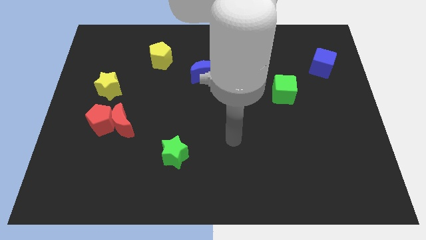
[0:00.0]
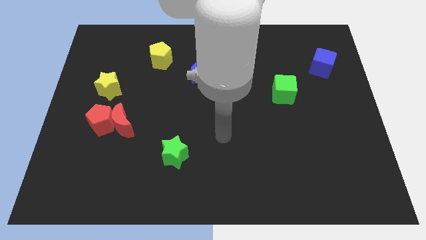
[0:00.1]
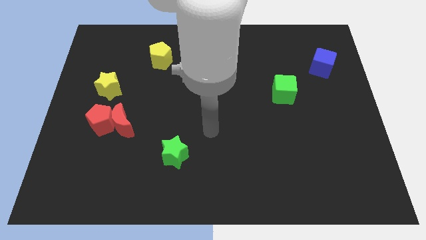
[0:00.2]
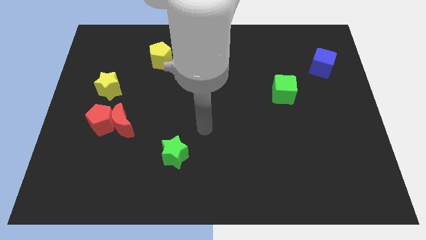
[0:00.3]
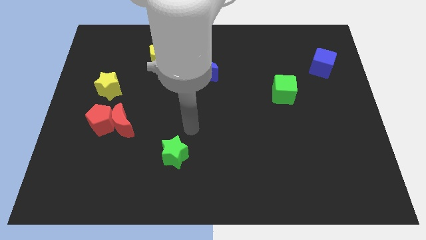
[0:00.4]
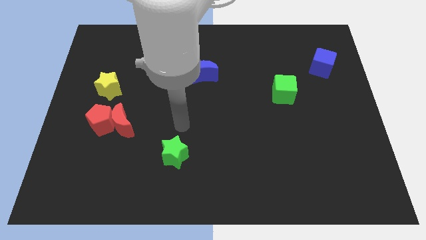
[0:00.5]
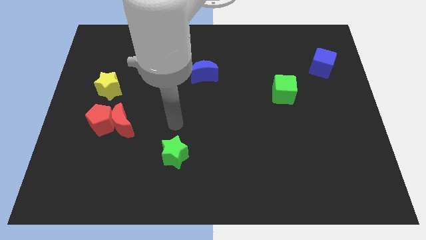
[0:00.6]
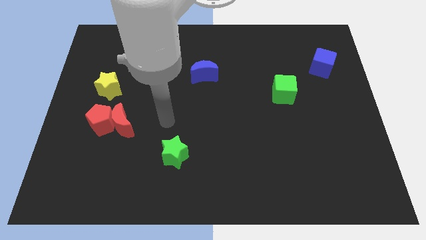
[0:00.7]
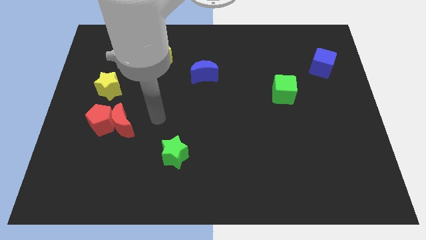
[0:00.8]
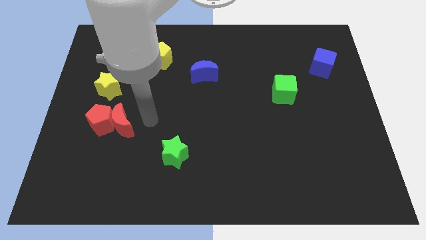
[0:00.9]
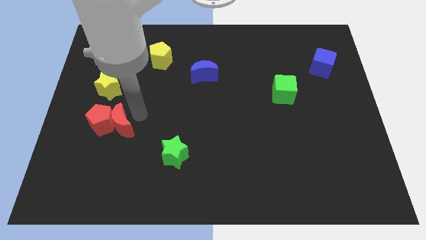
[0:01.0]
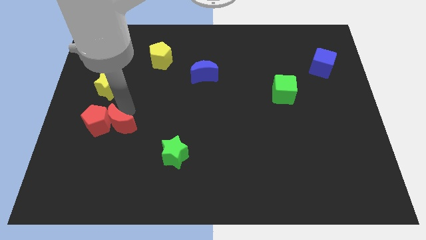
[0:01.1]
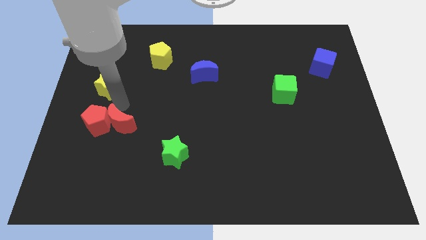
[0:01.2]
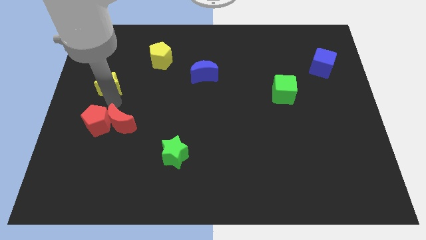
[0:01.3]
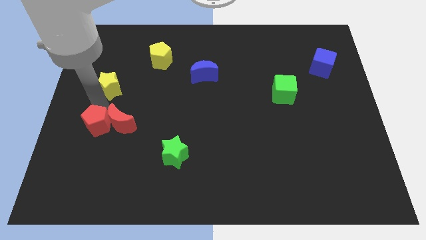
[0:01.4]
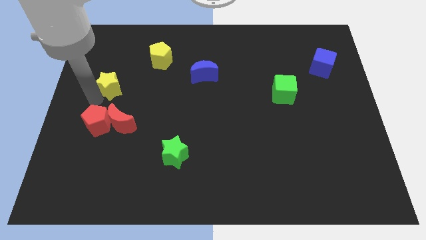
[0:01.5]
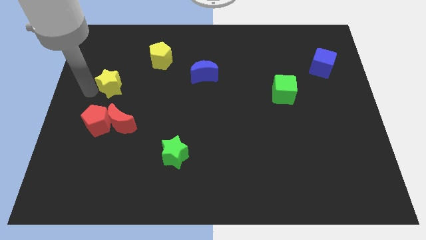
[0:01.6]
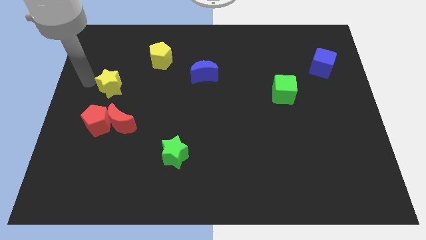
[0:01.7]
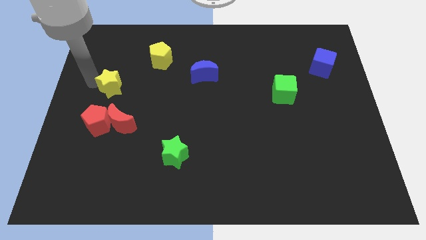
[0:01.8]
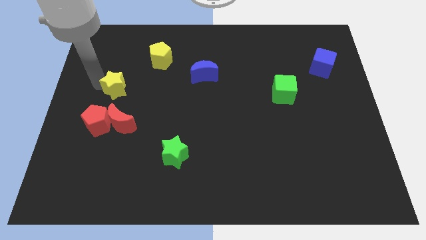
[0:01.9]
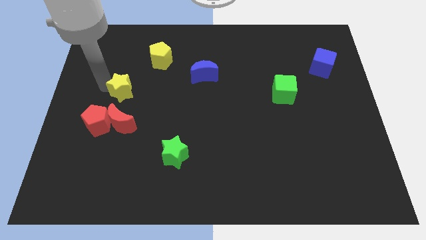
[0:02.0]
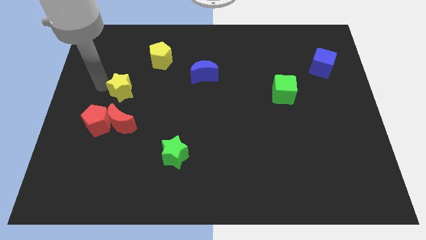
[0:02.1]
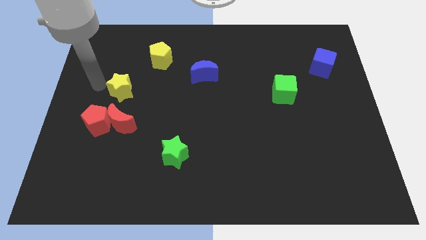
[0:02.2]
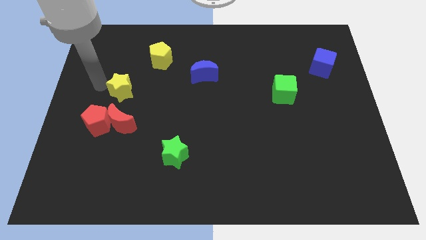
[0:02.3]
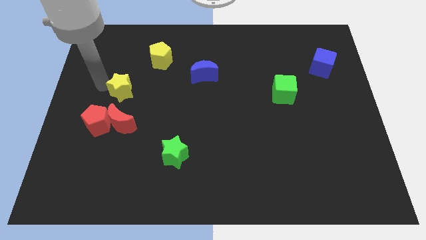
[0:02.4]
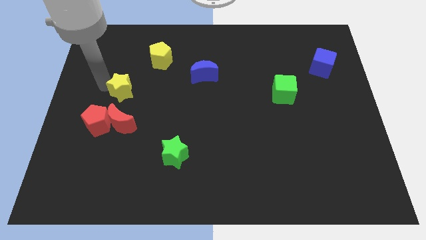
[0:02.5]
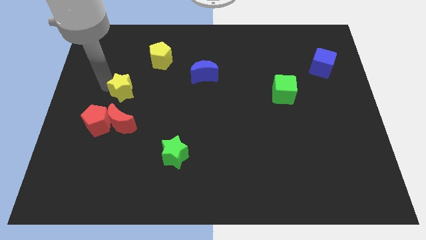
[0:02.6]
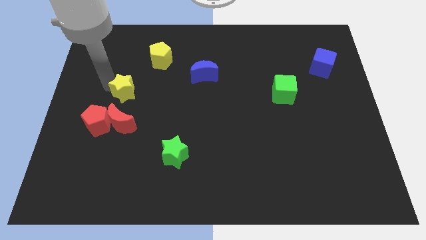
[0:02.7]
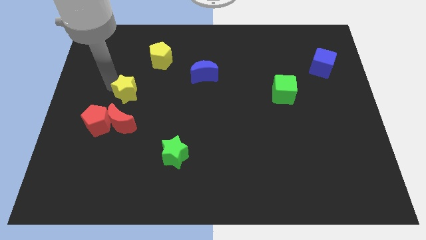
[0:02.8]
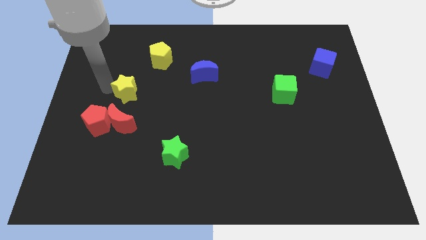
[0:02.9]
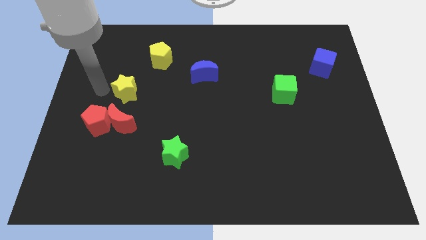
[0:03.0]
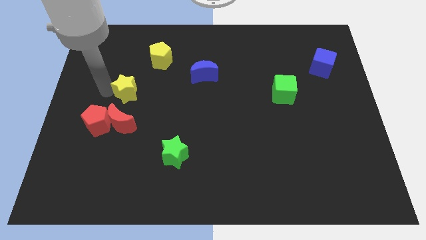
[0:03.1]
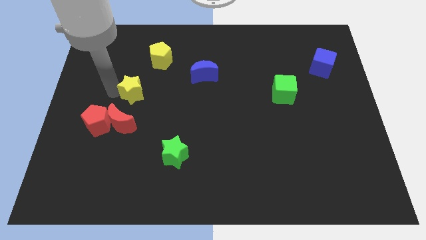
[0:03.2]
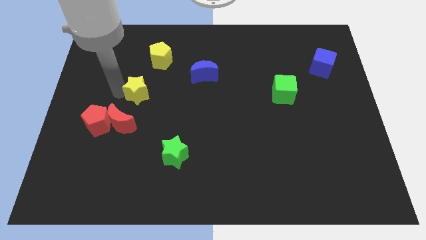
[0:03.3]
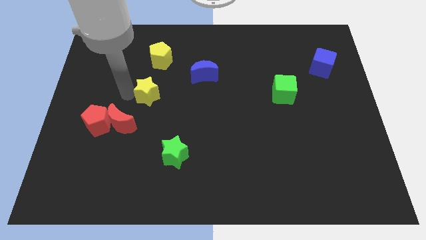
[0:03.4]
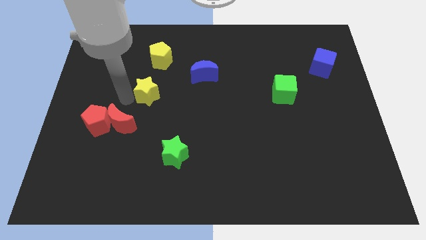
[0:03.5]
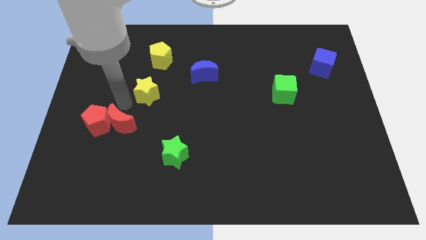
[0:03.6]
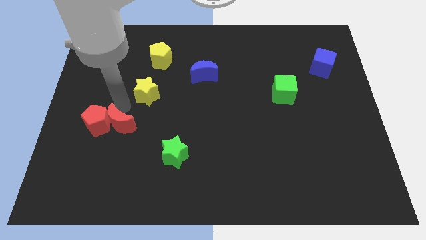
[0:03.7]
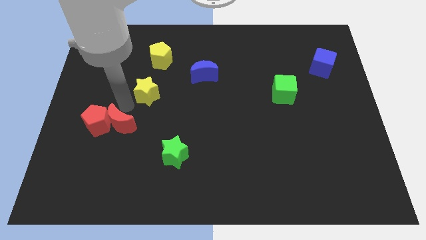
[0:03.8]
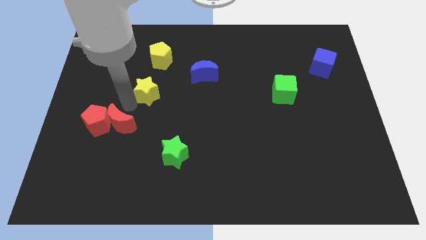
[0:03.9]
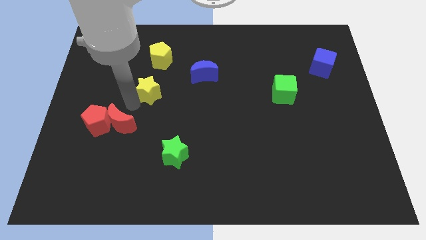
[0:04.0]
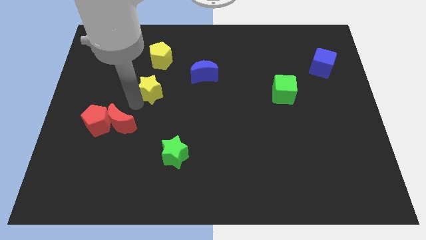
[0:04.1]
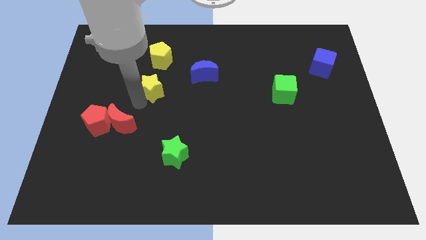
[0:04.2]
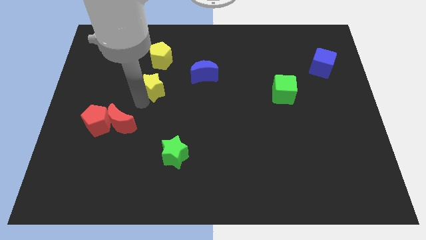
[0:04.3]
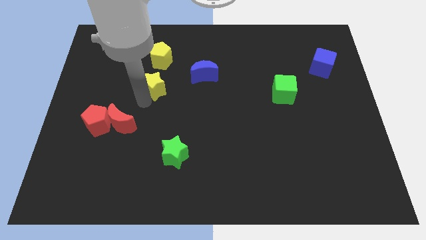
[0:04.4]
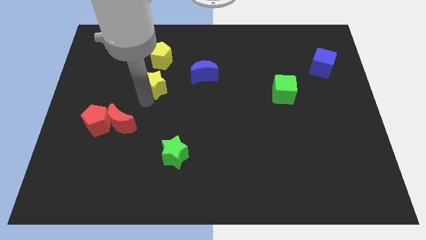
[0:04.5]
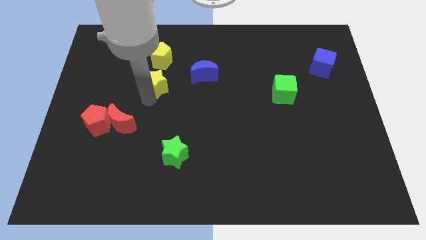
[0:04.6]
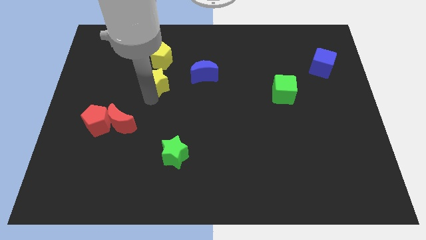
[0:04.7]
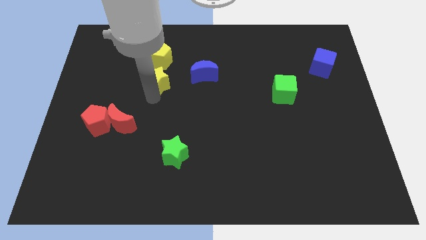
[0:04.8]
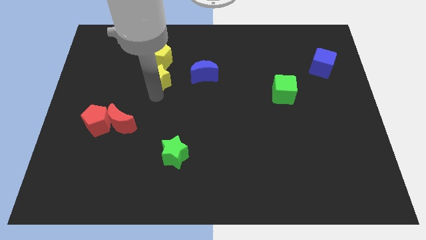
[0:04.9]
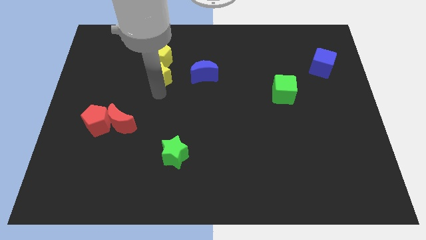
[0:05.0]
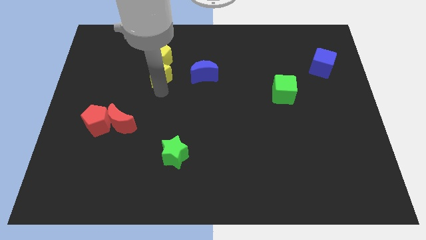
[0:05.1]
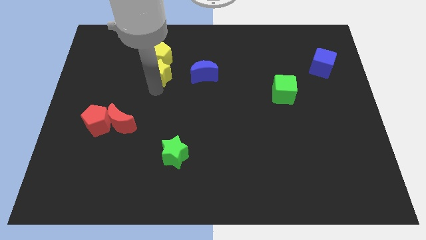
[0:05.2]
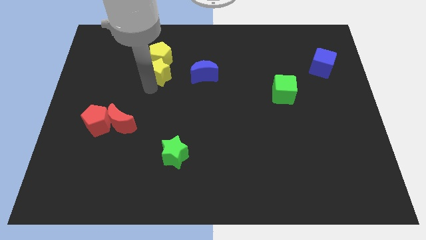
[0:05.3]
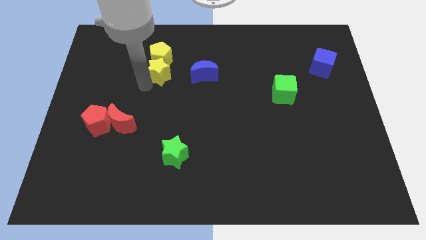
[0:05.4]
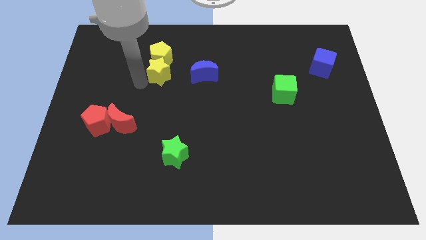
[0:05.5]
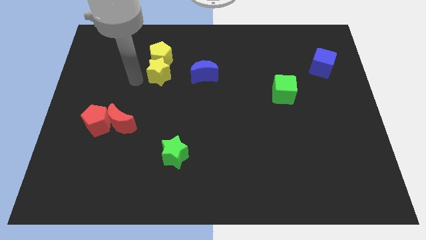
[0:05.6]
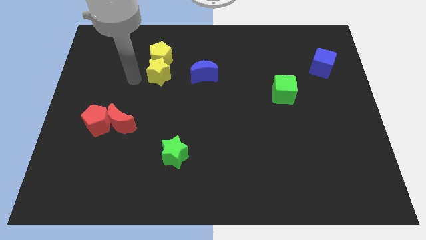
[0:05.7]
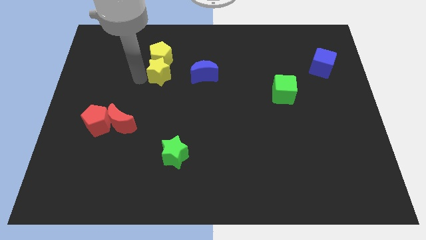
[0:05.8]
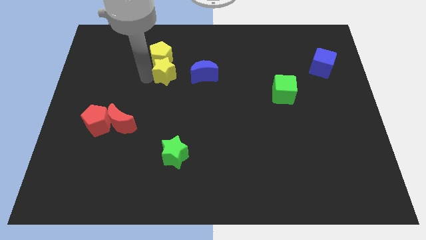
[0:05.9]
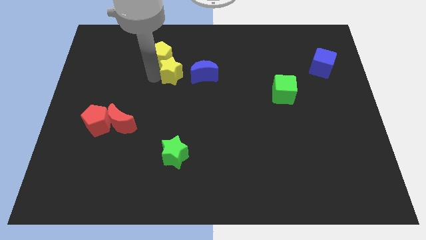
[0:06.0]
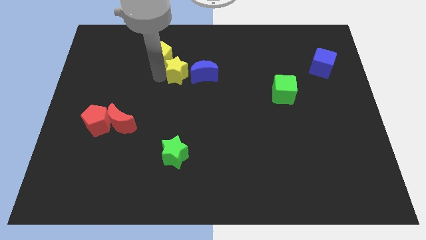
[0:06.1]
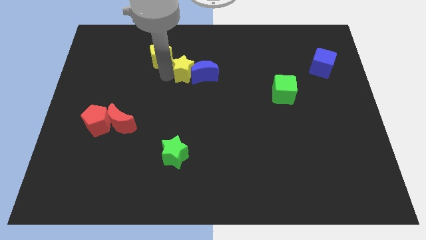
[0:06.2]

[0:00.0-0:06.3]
put the yellow star to the blue moon

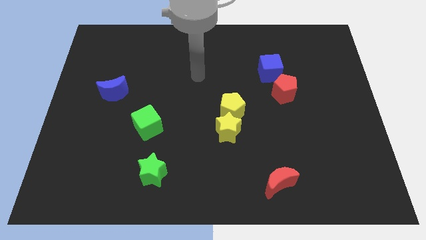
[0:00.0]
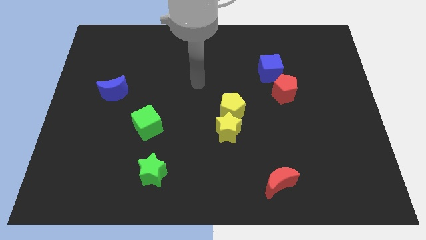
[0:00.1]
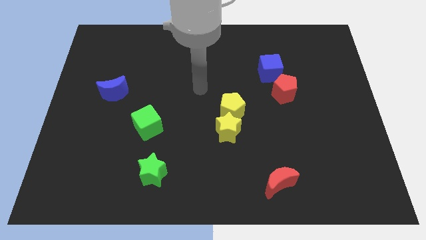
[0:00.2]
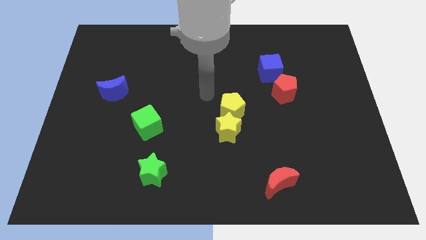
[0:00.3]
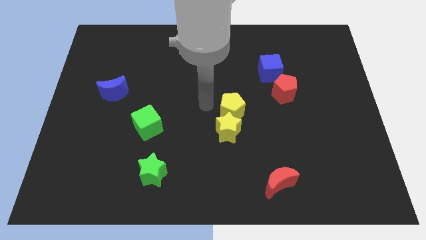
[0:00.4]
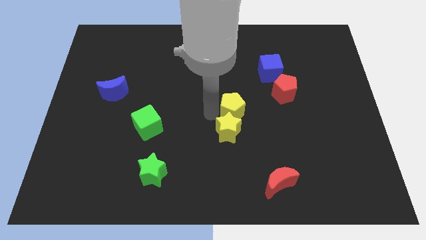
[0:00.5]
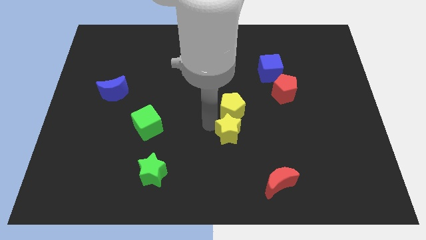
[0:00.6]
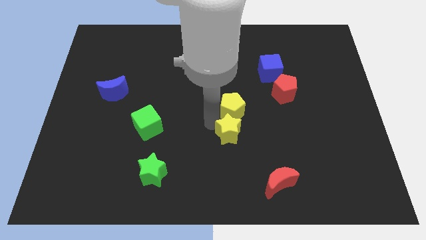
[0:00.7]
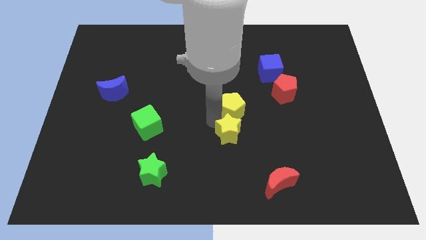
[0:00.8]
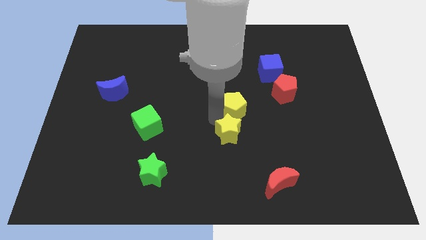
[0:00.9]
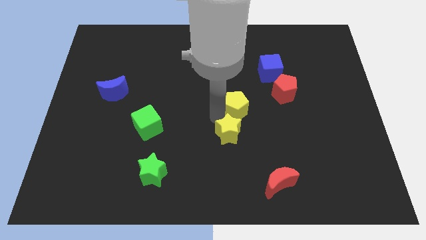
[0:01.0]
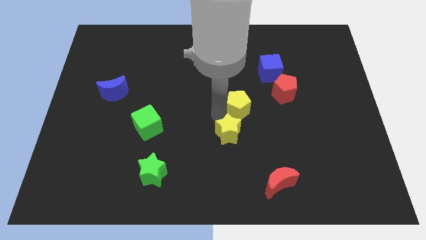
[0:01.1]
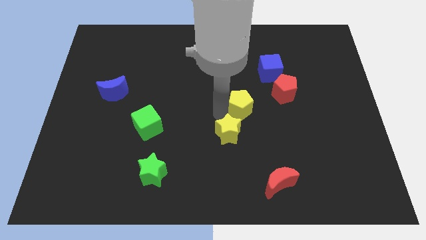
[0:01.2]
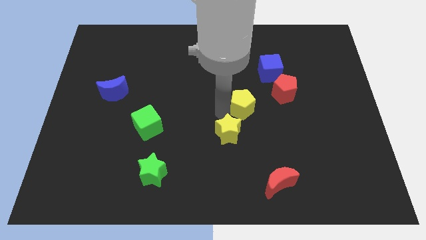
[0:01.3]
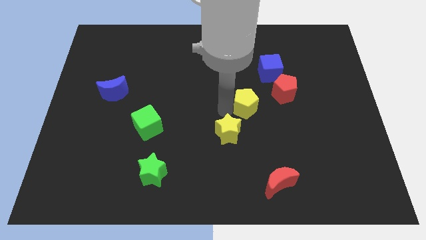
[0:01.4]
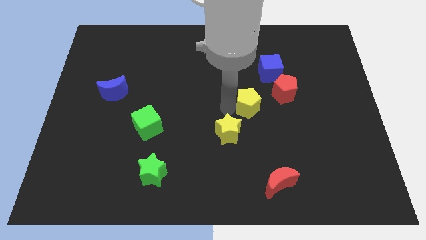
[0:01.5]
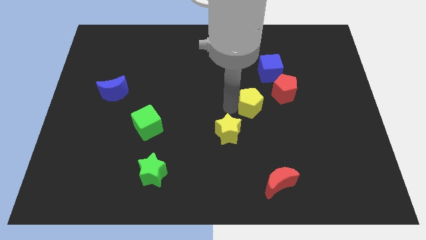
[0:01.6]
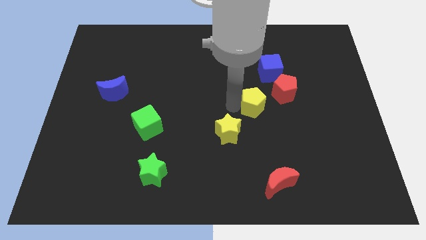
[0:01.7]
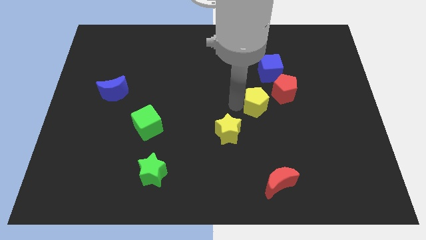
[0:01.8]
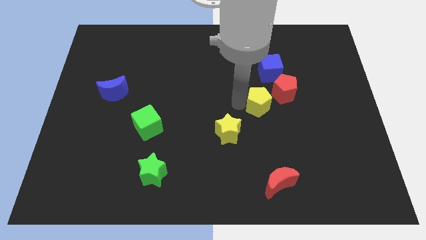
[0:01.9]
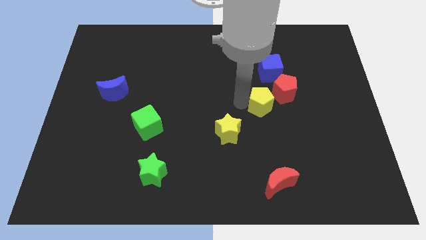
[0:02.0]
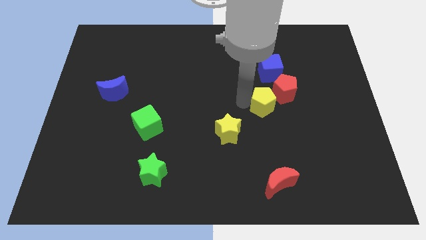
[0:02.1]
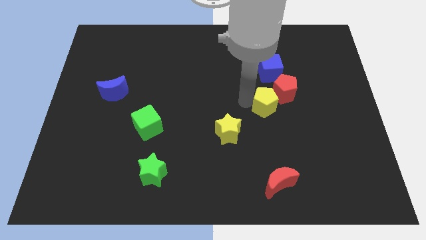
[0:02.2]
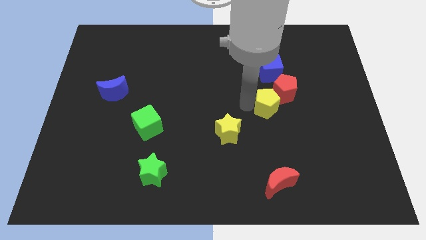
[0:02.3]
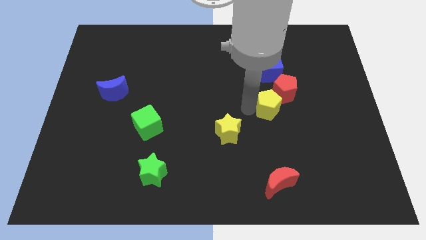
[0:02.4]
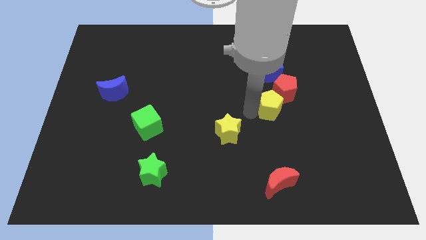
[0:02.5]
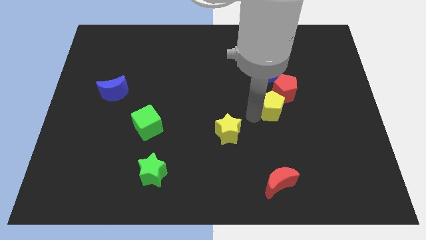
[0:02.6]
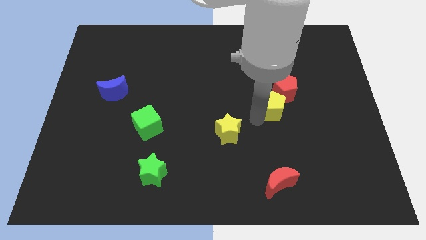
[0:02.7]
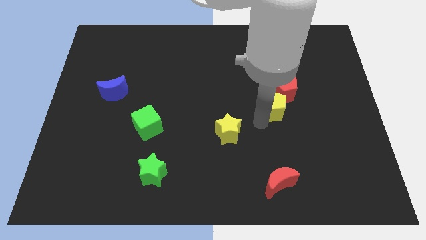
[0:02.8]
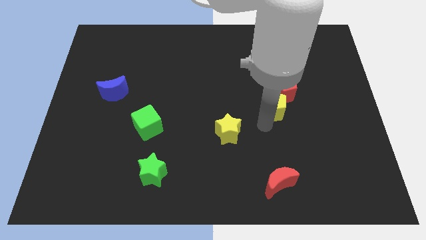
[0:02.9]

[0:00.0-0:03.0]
put the yellow pentagon close to the red pentagon
